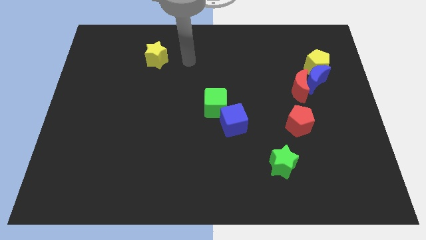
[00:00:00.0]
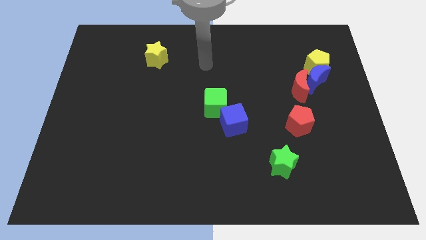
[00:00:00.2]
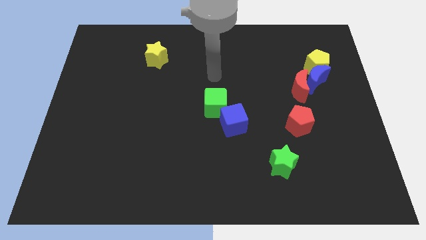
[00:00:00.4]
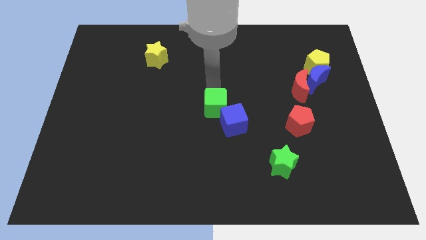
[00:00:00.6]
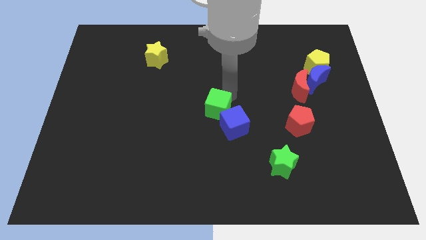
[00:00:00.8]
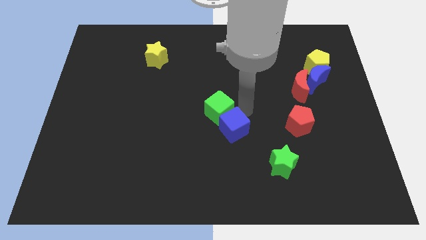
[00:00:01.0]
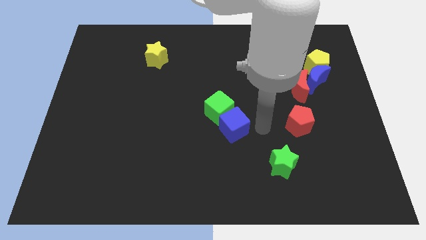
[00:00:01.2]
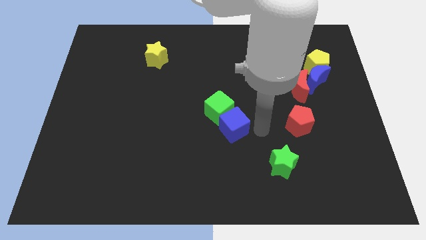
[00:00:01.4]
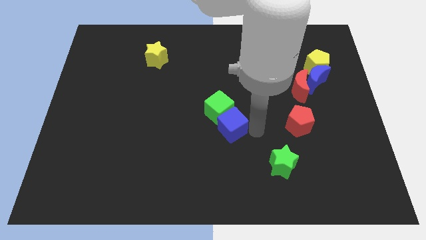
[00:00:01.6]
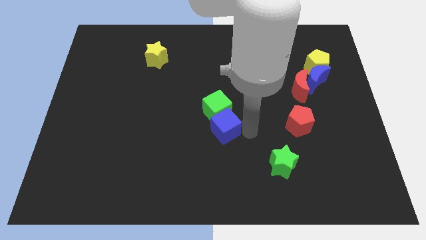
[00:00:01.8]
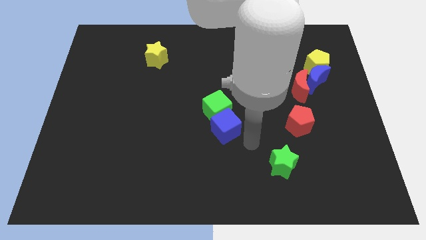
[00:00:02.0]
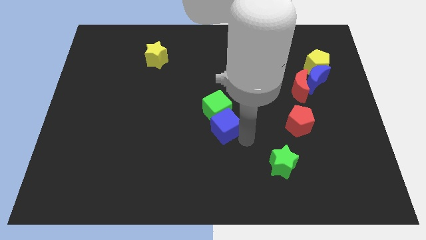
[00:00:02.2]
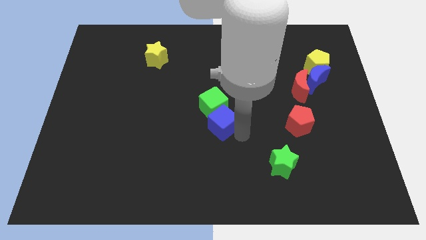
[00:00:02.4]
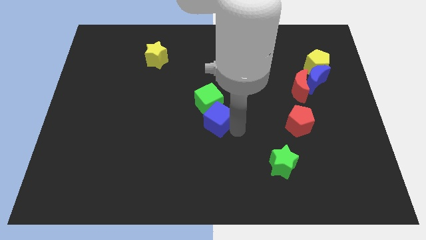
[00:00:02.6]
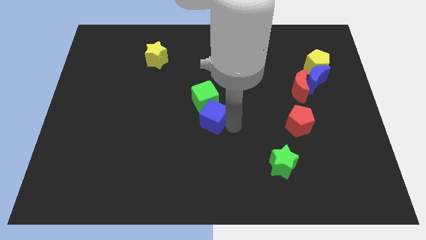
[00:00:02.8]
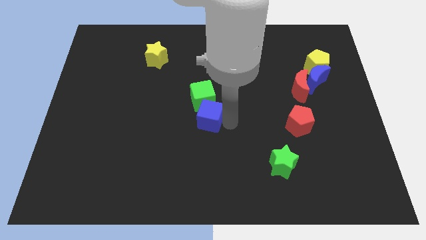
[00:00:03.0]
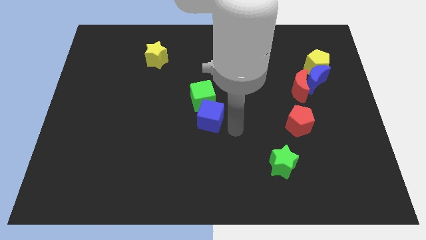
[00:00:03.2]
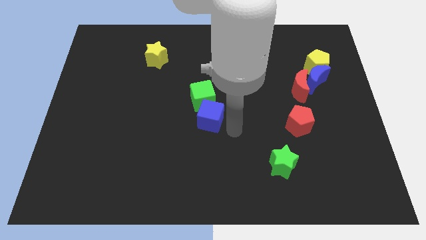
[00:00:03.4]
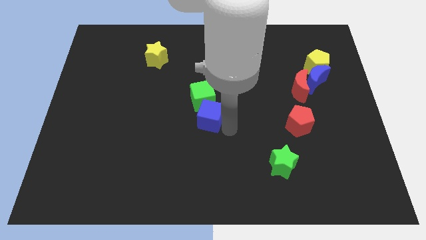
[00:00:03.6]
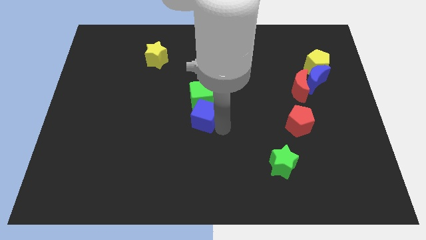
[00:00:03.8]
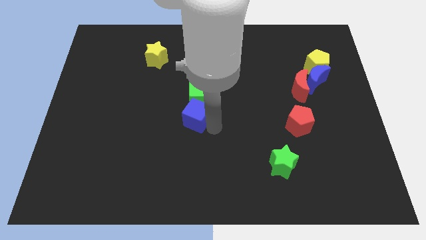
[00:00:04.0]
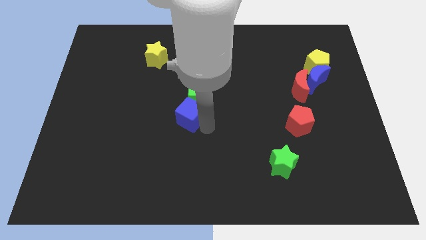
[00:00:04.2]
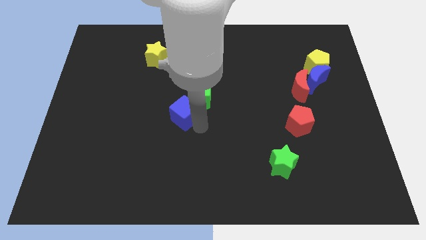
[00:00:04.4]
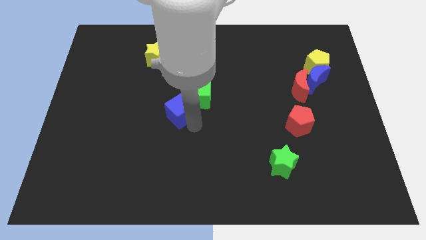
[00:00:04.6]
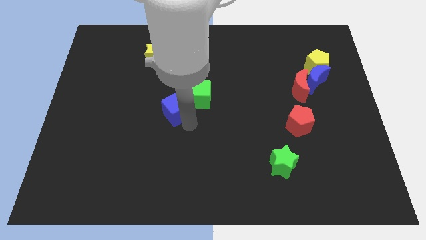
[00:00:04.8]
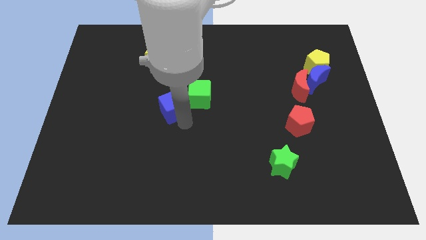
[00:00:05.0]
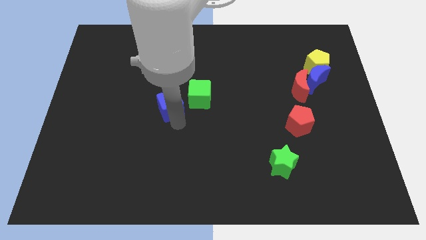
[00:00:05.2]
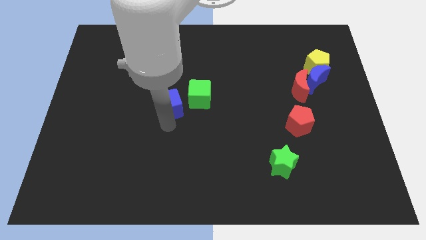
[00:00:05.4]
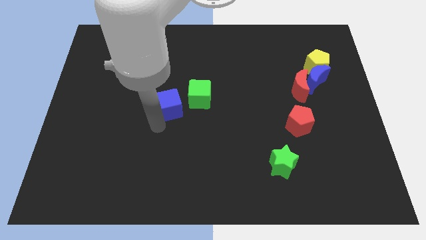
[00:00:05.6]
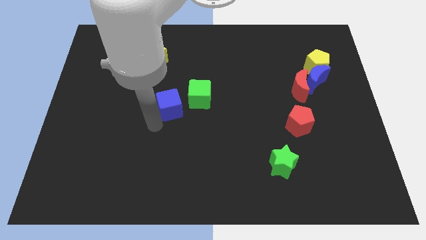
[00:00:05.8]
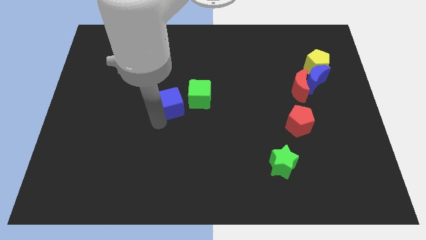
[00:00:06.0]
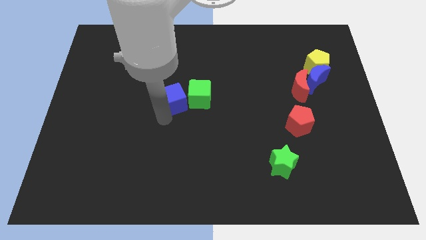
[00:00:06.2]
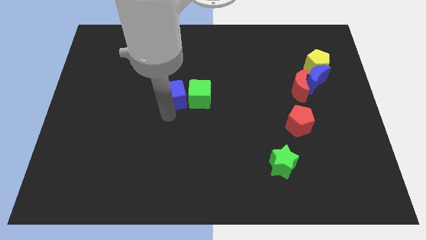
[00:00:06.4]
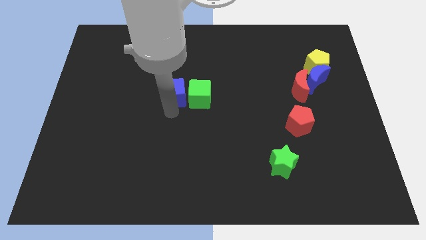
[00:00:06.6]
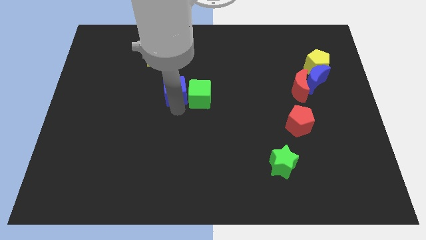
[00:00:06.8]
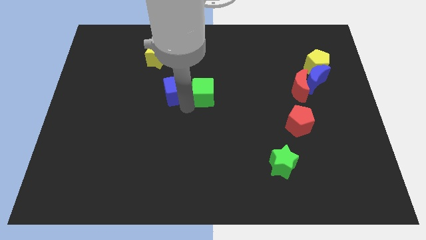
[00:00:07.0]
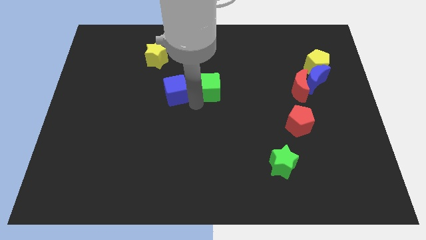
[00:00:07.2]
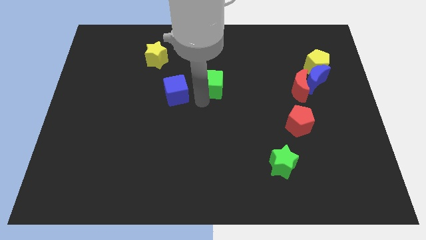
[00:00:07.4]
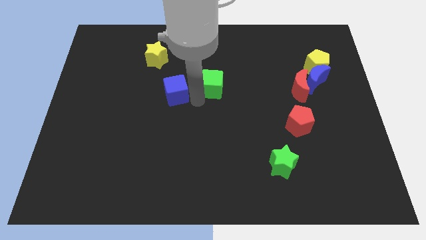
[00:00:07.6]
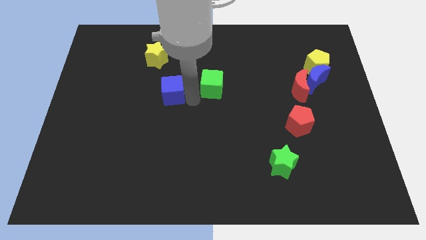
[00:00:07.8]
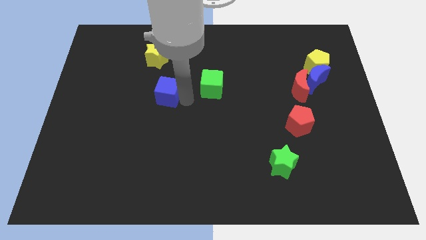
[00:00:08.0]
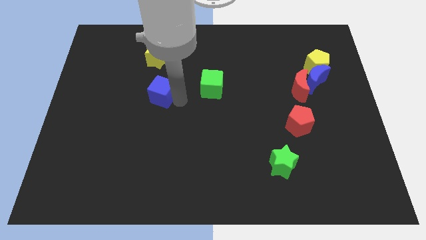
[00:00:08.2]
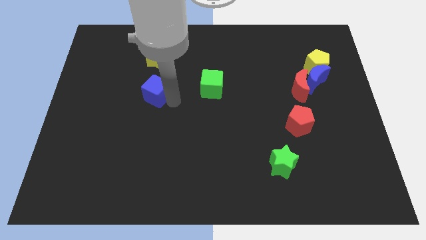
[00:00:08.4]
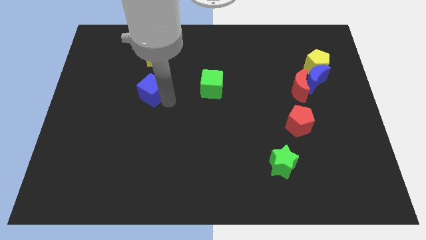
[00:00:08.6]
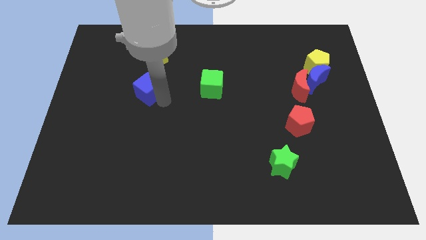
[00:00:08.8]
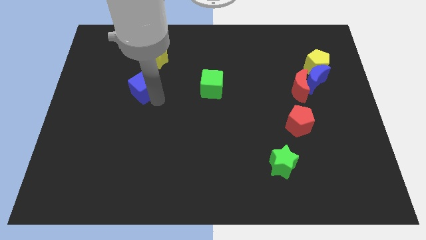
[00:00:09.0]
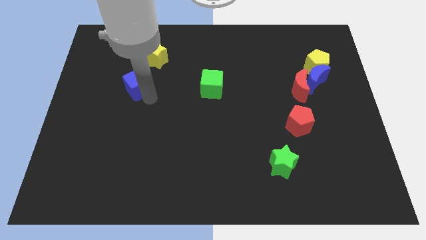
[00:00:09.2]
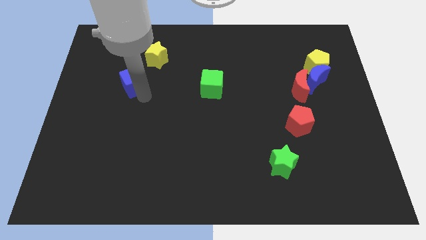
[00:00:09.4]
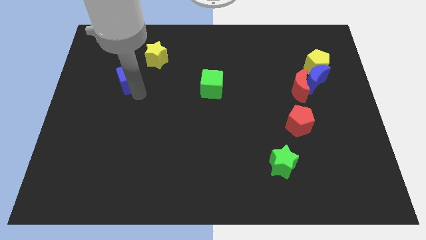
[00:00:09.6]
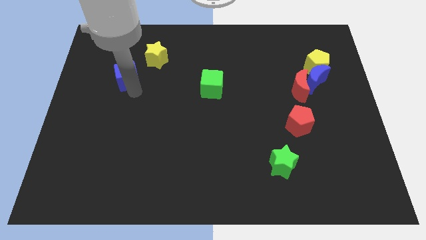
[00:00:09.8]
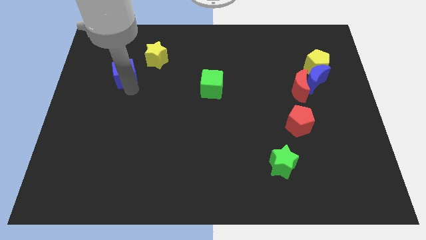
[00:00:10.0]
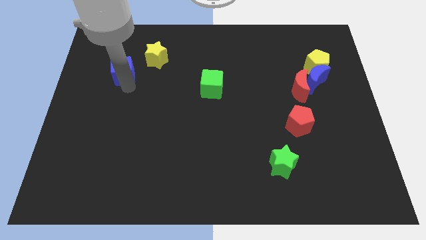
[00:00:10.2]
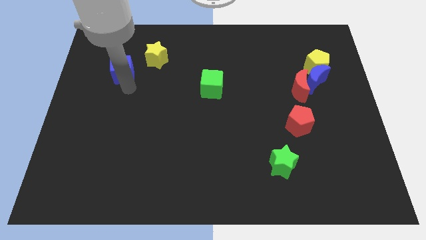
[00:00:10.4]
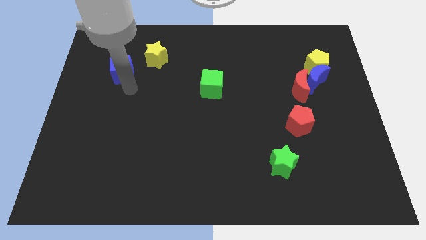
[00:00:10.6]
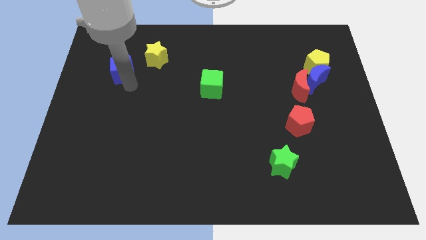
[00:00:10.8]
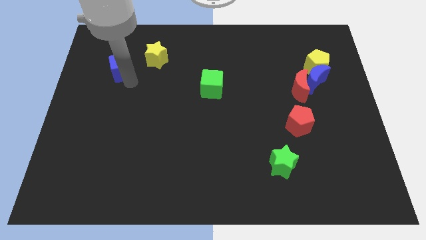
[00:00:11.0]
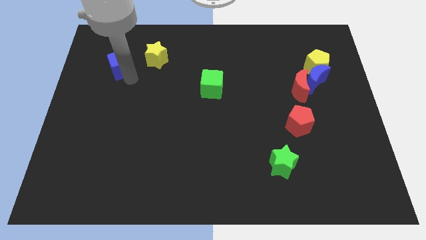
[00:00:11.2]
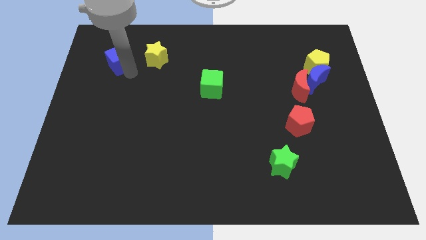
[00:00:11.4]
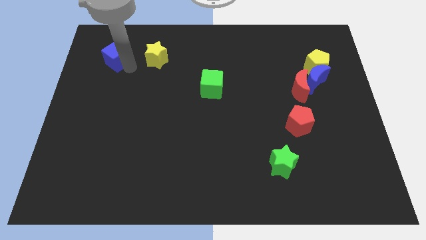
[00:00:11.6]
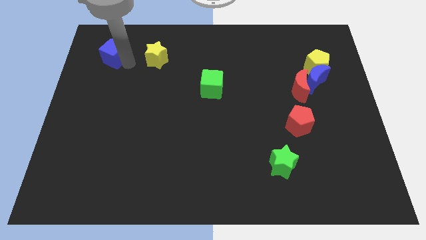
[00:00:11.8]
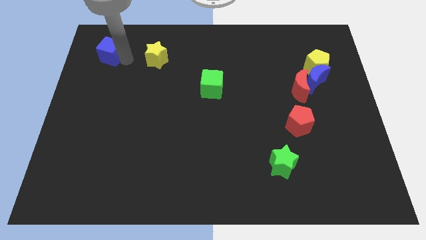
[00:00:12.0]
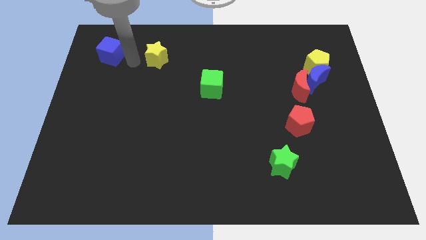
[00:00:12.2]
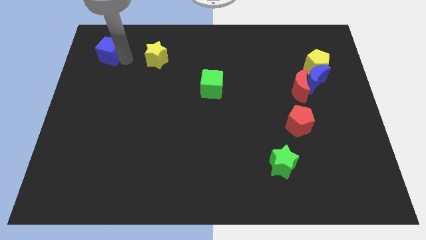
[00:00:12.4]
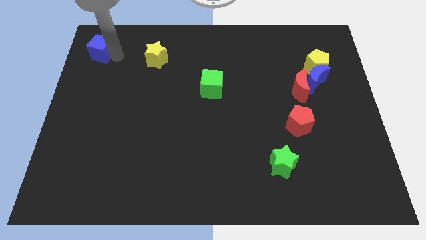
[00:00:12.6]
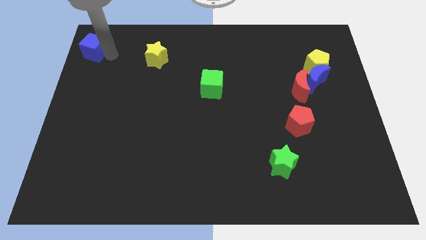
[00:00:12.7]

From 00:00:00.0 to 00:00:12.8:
put the blue cube to the upper left corner
